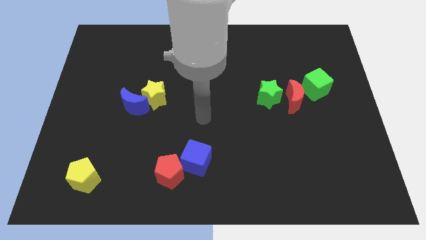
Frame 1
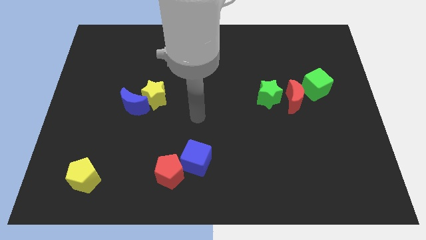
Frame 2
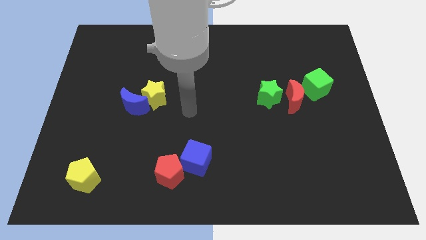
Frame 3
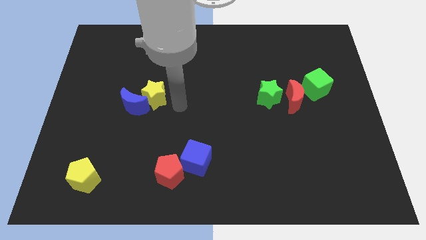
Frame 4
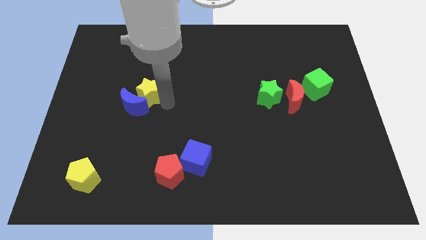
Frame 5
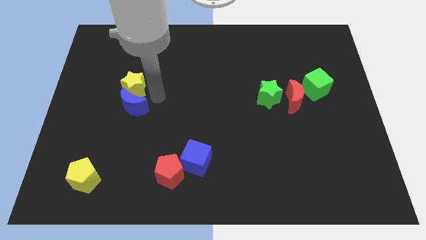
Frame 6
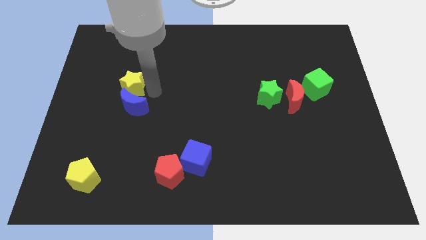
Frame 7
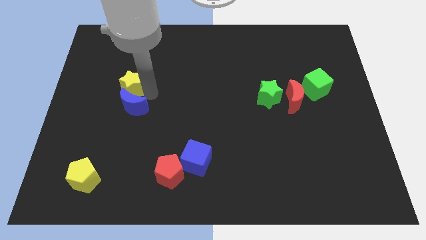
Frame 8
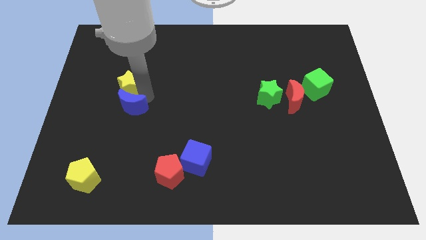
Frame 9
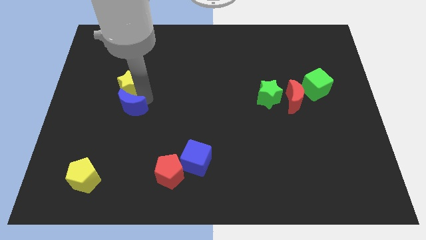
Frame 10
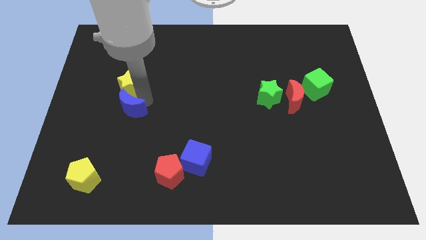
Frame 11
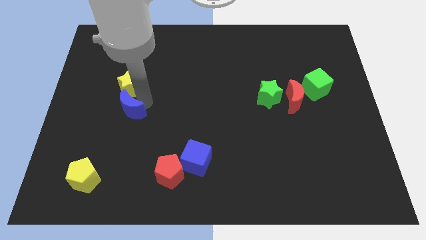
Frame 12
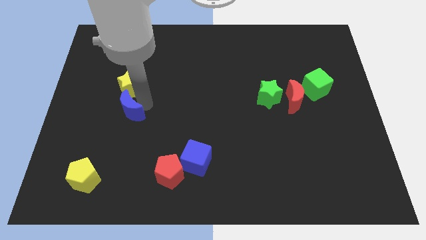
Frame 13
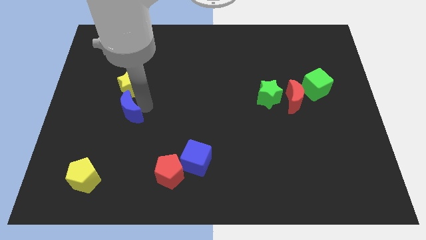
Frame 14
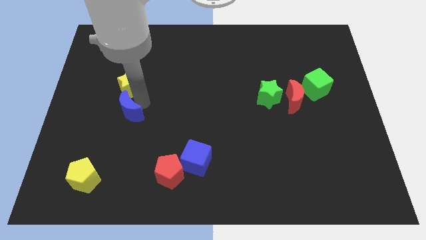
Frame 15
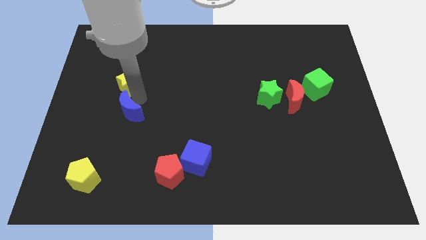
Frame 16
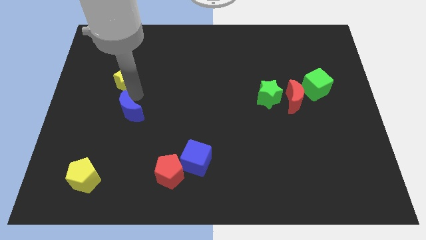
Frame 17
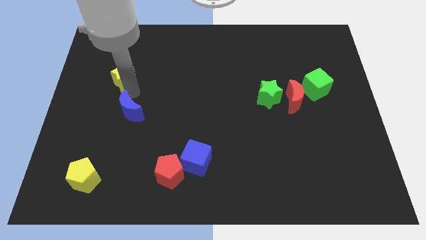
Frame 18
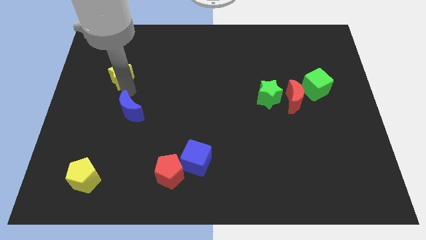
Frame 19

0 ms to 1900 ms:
separate the blue moon from the yellow star

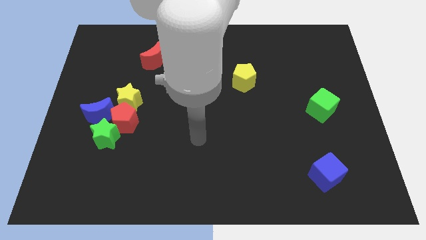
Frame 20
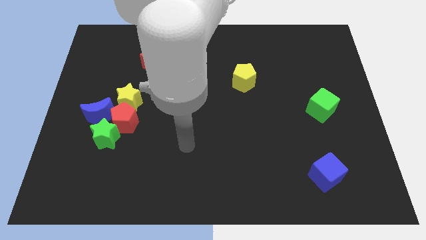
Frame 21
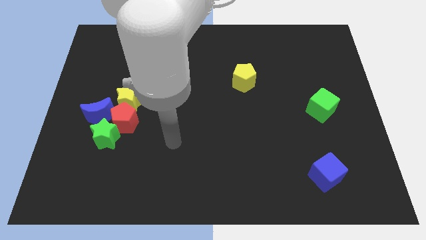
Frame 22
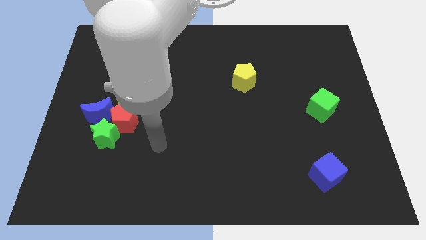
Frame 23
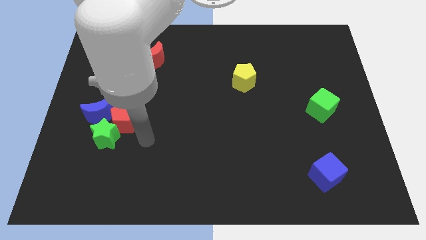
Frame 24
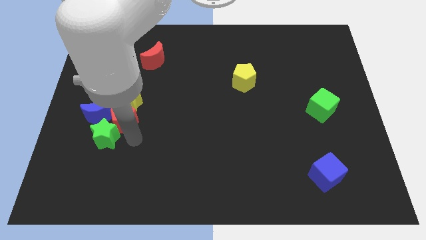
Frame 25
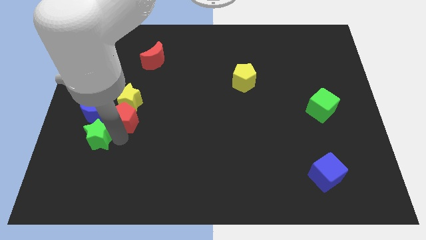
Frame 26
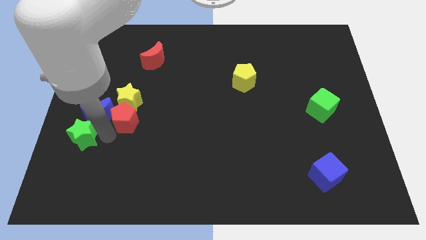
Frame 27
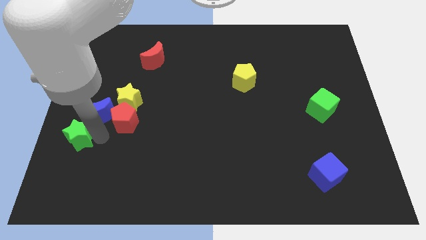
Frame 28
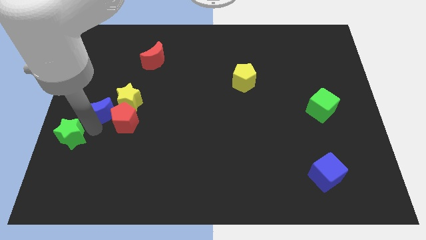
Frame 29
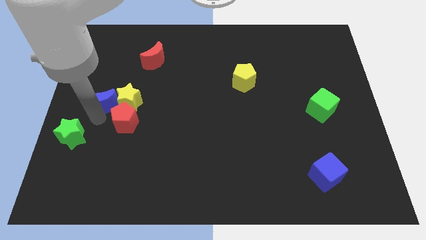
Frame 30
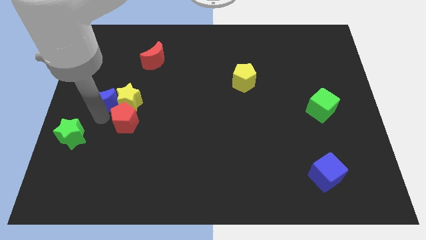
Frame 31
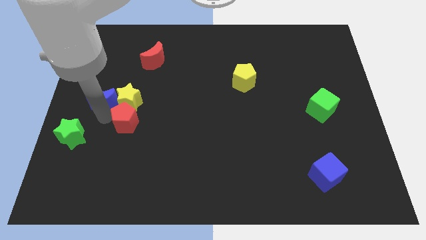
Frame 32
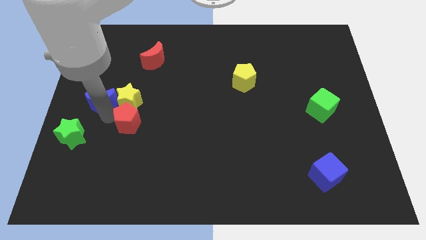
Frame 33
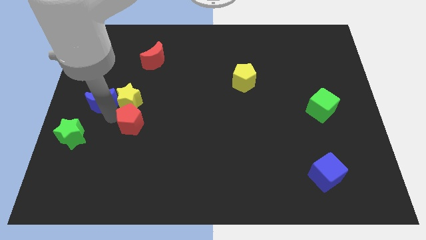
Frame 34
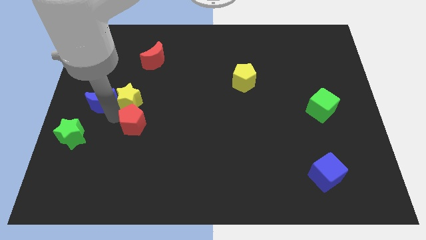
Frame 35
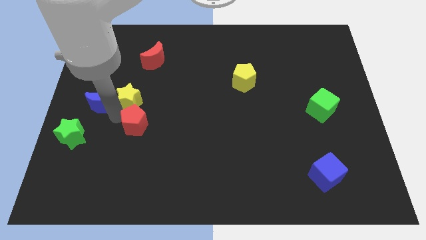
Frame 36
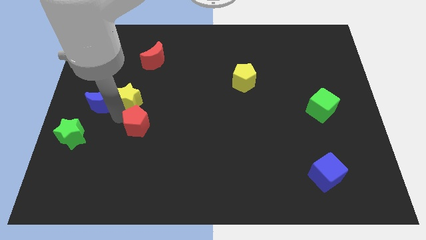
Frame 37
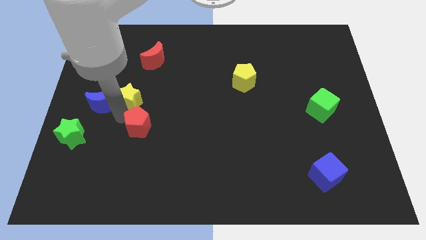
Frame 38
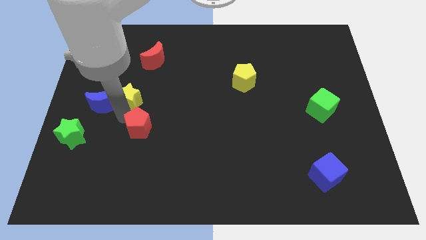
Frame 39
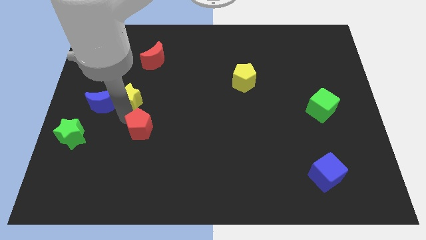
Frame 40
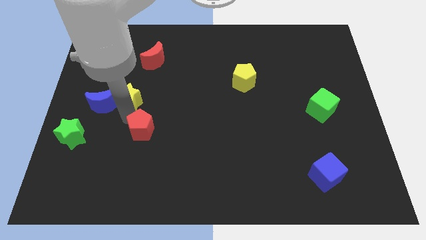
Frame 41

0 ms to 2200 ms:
move the red pentagon away from the group

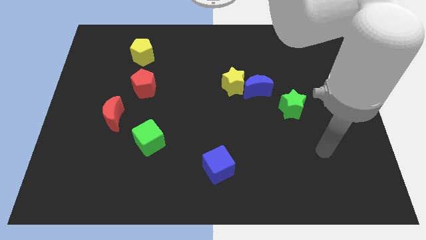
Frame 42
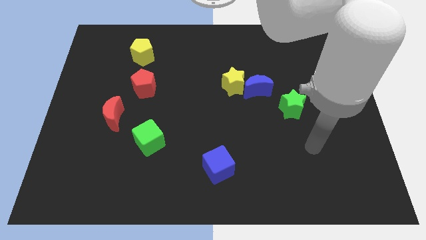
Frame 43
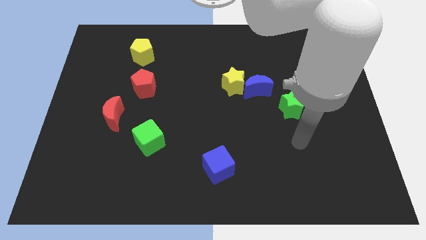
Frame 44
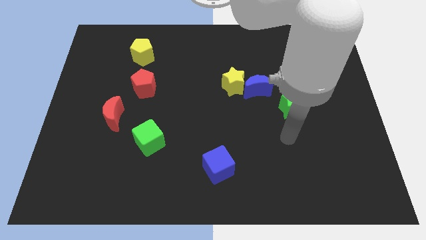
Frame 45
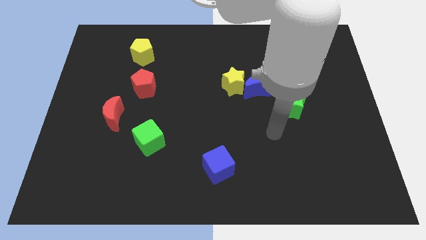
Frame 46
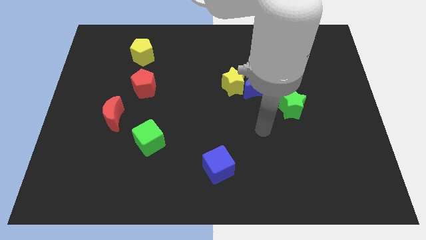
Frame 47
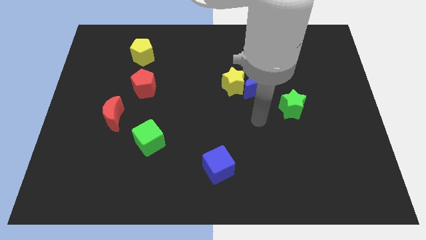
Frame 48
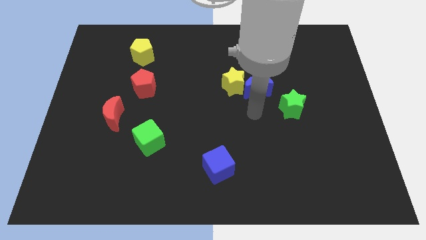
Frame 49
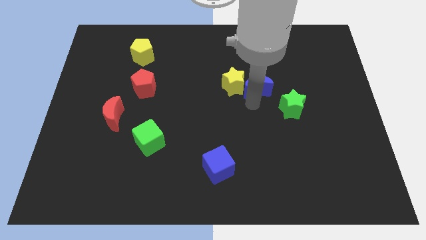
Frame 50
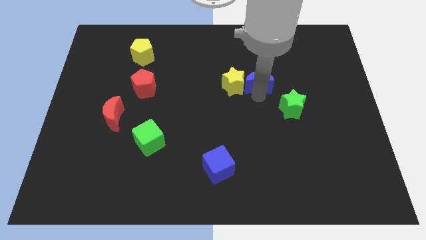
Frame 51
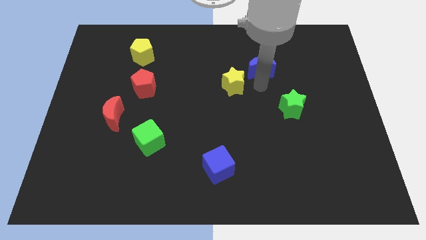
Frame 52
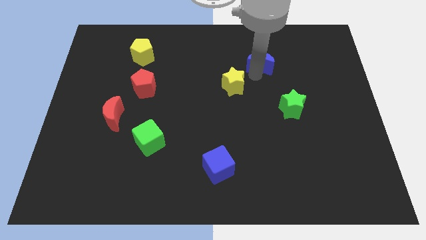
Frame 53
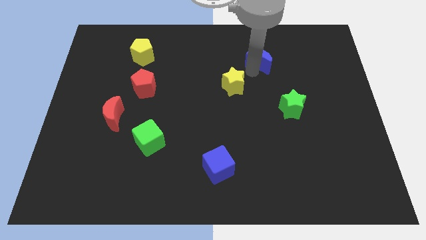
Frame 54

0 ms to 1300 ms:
pull the yellow star apart from the blue moon

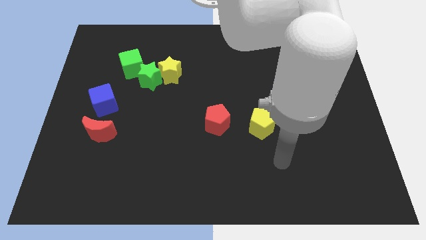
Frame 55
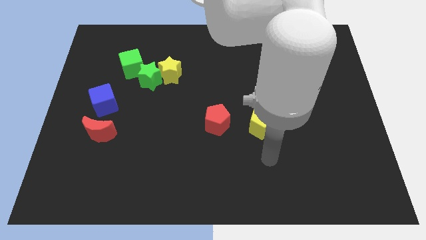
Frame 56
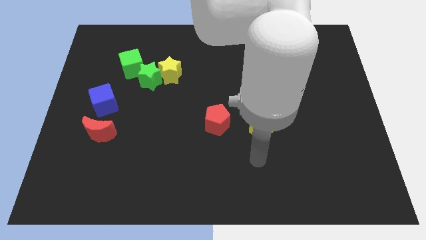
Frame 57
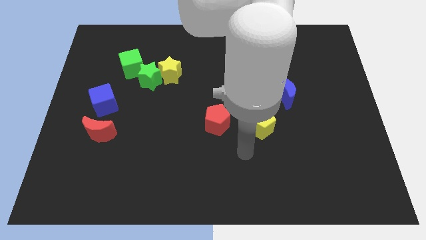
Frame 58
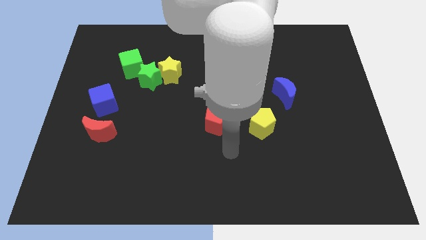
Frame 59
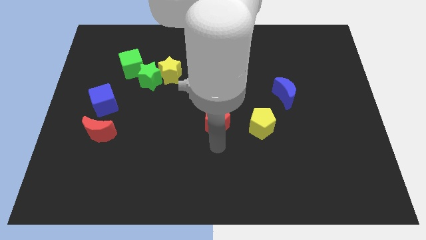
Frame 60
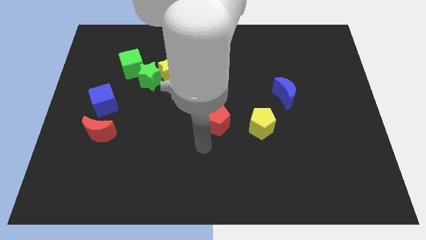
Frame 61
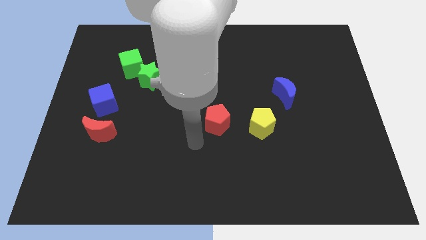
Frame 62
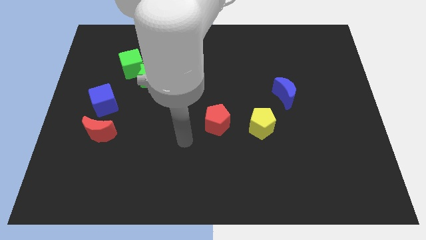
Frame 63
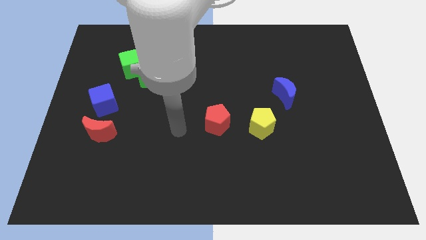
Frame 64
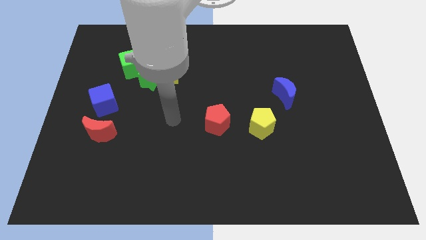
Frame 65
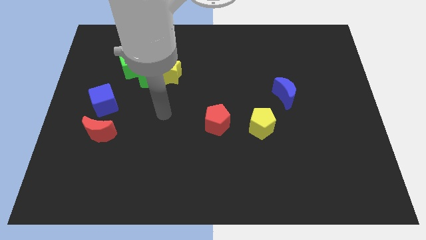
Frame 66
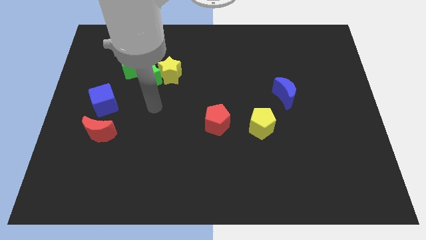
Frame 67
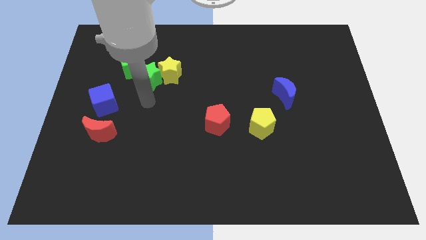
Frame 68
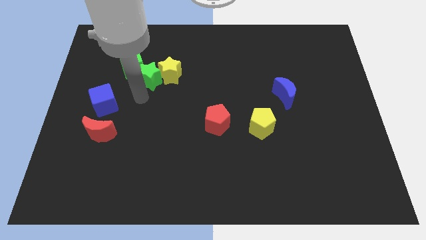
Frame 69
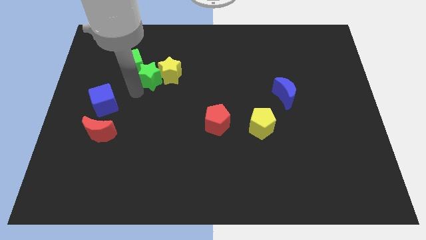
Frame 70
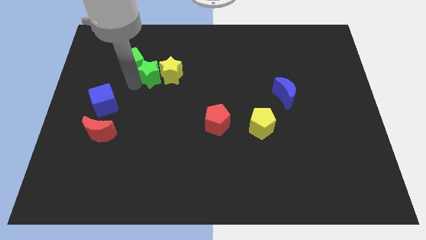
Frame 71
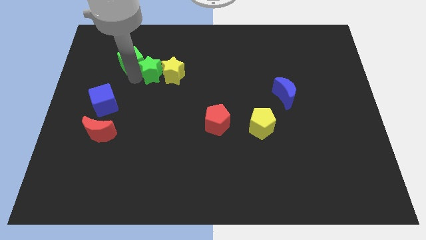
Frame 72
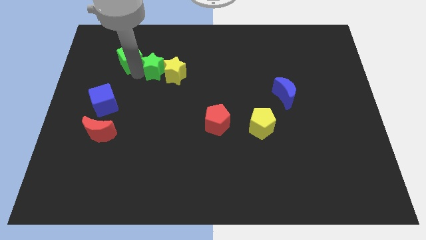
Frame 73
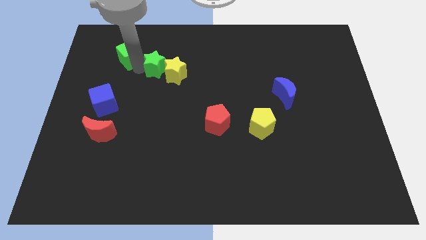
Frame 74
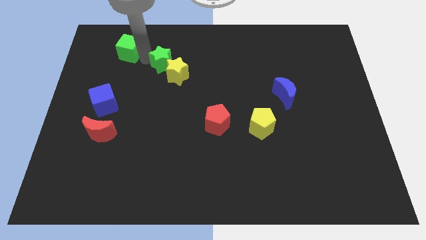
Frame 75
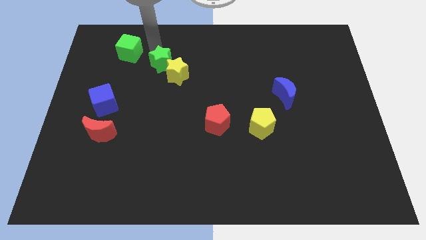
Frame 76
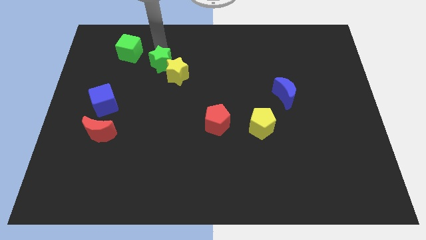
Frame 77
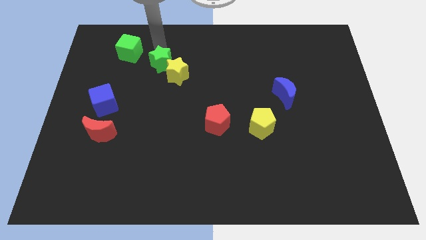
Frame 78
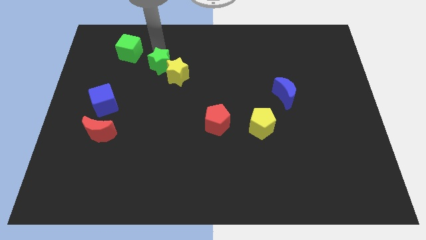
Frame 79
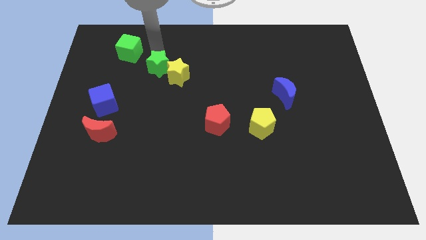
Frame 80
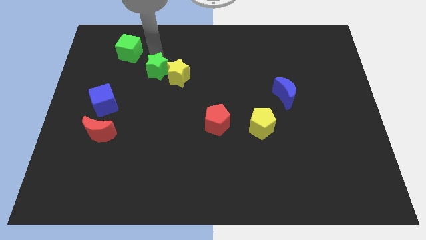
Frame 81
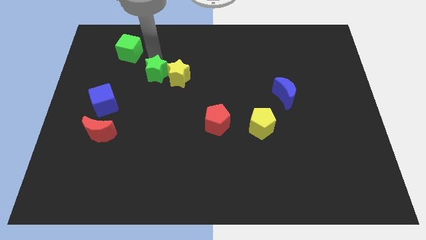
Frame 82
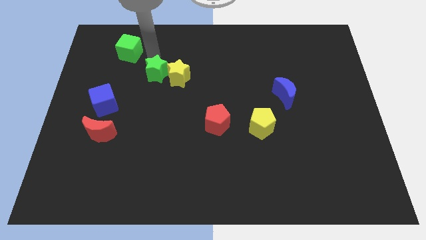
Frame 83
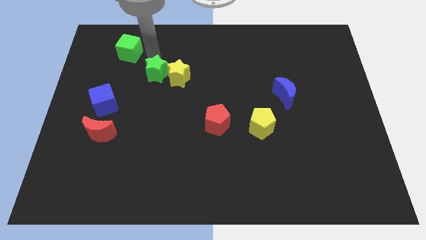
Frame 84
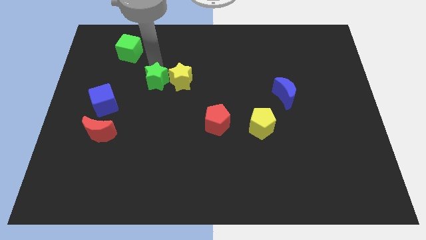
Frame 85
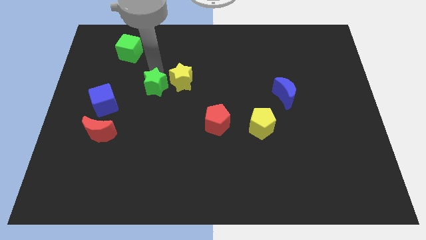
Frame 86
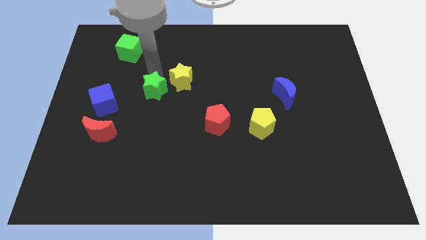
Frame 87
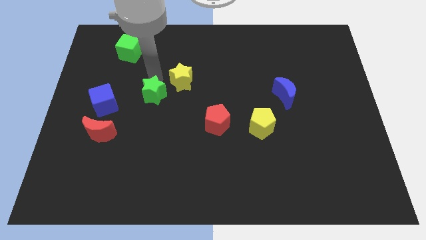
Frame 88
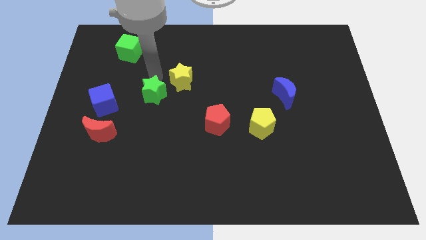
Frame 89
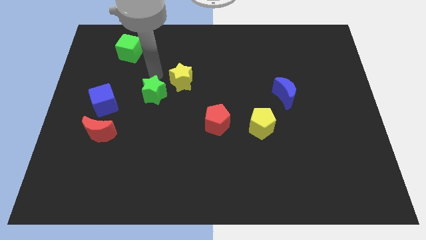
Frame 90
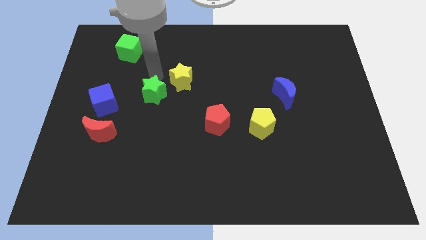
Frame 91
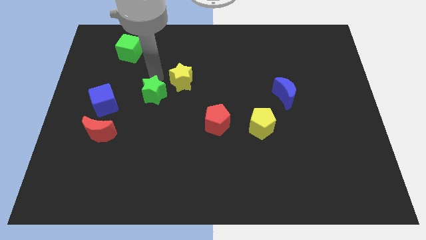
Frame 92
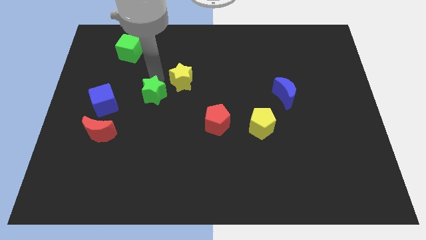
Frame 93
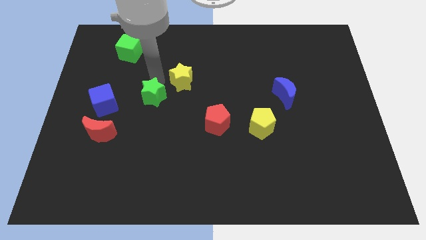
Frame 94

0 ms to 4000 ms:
move the green star away from the yellow star and green cube

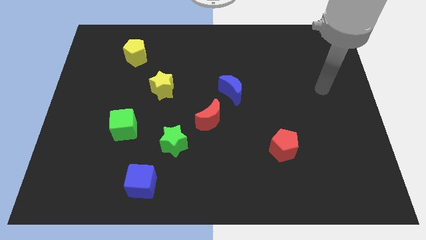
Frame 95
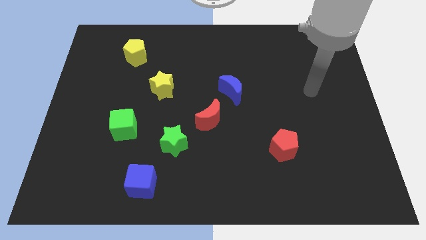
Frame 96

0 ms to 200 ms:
move the blue moon away from the red moon
